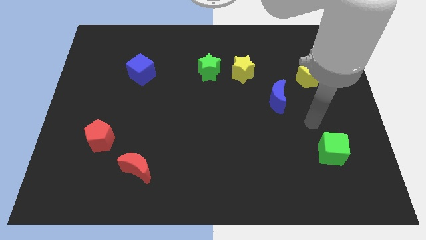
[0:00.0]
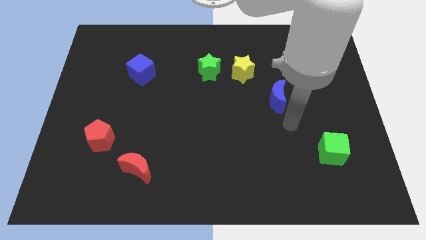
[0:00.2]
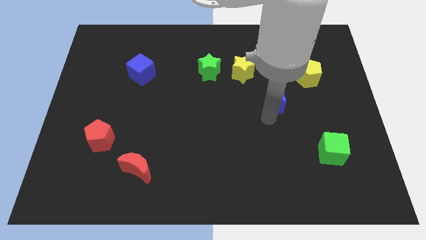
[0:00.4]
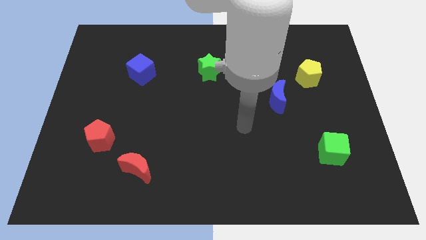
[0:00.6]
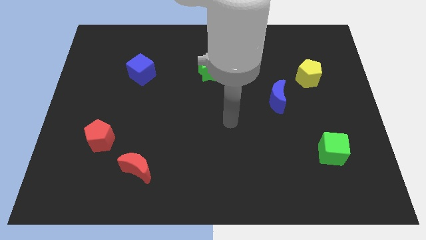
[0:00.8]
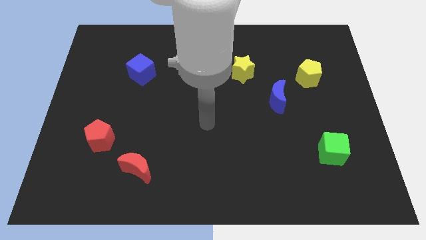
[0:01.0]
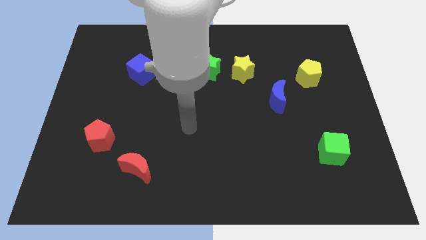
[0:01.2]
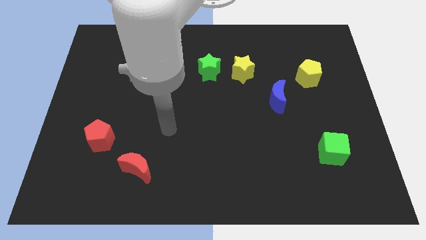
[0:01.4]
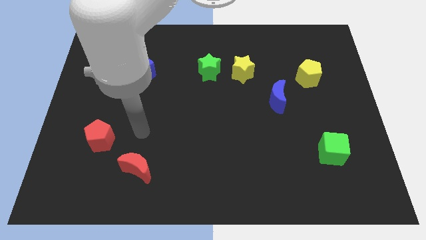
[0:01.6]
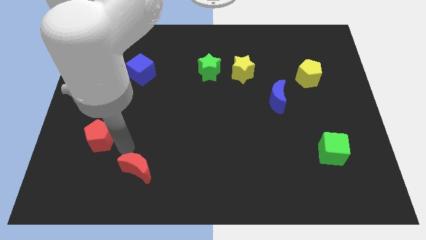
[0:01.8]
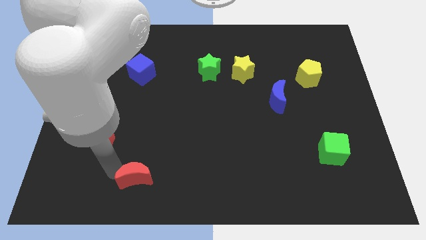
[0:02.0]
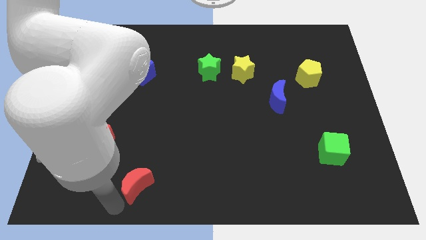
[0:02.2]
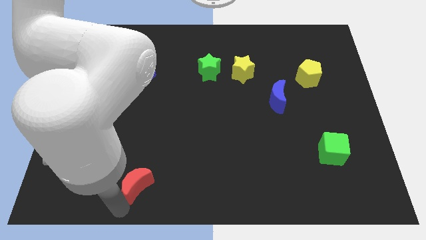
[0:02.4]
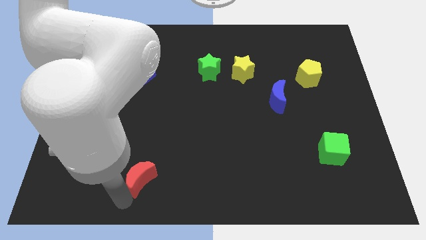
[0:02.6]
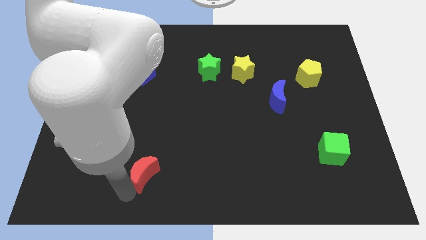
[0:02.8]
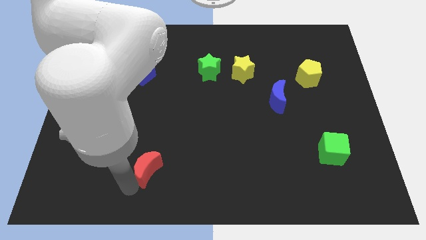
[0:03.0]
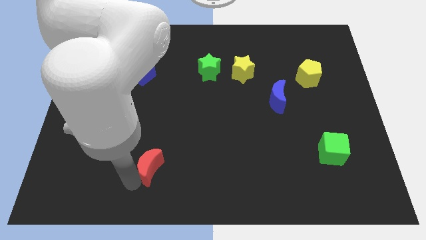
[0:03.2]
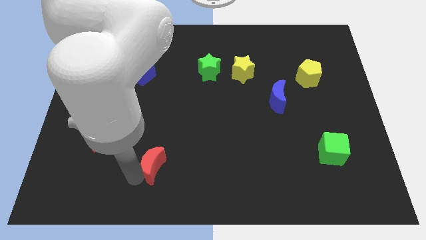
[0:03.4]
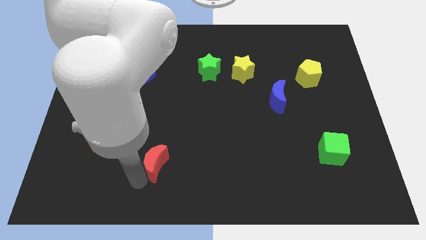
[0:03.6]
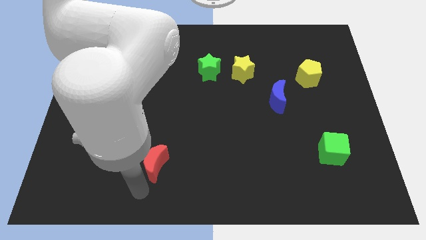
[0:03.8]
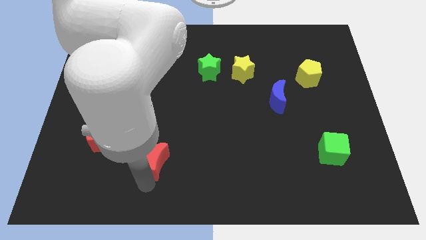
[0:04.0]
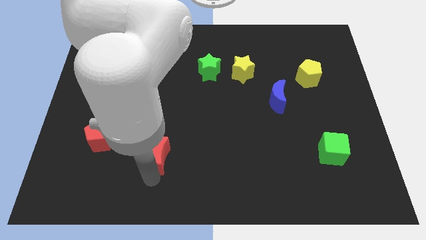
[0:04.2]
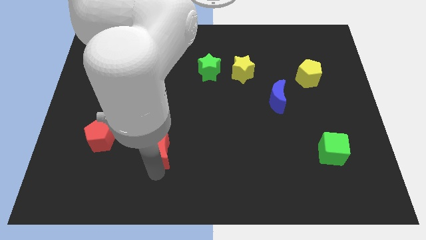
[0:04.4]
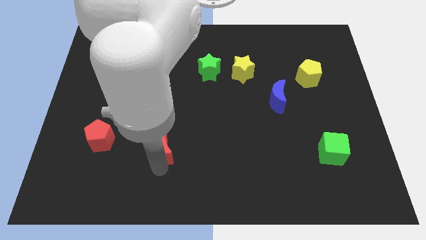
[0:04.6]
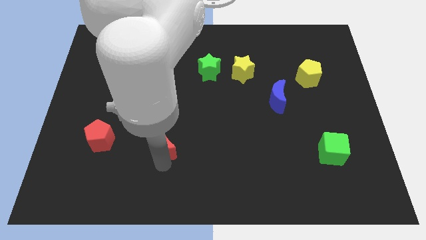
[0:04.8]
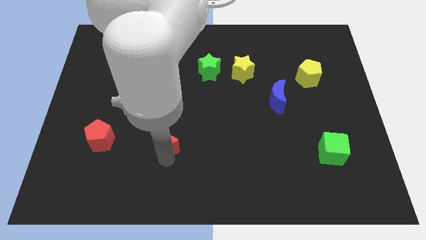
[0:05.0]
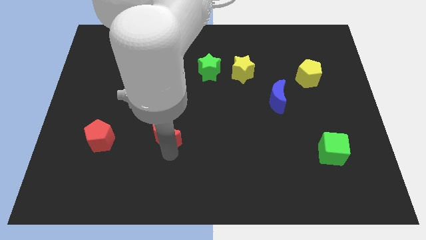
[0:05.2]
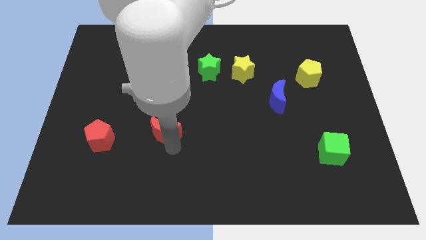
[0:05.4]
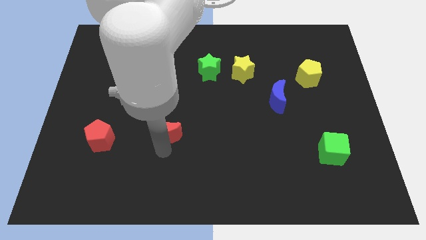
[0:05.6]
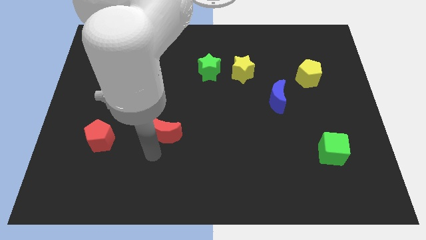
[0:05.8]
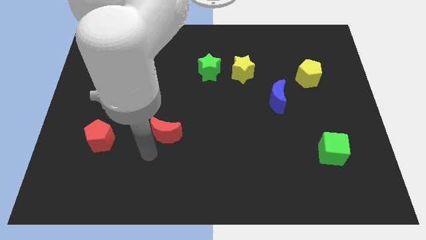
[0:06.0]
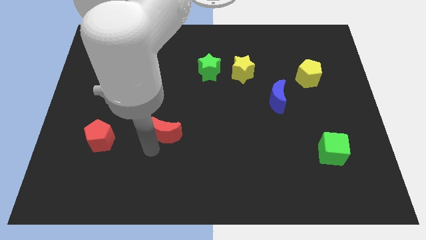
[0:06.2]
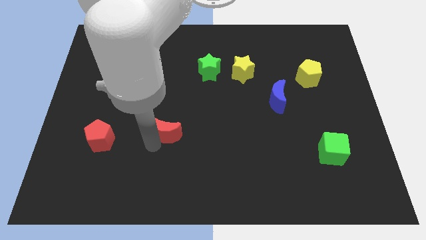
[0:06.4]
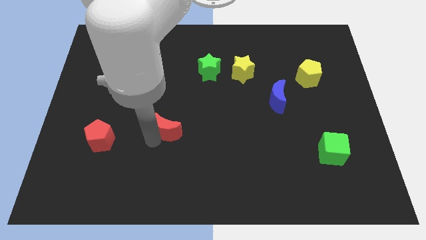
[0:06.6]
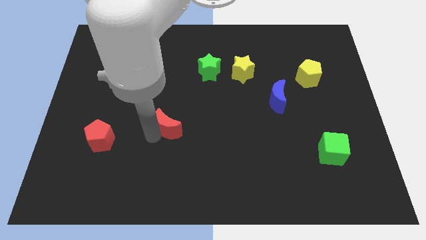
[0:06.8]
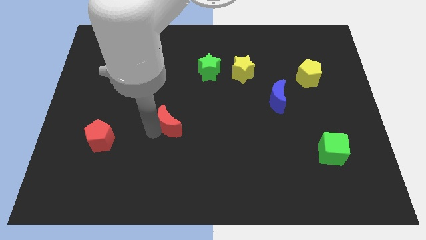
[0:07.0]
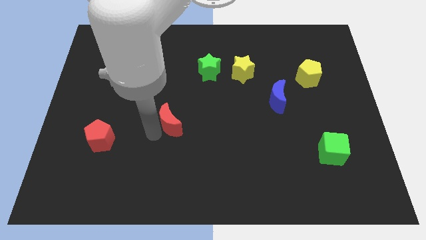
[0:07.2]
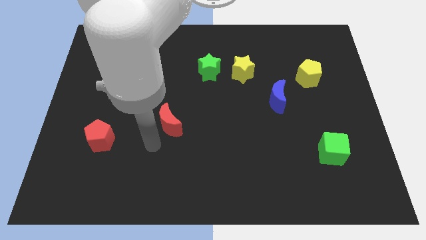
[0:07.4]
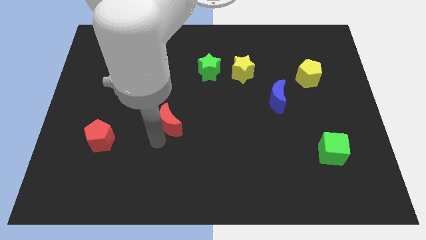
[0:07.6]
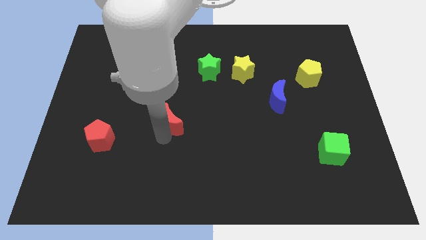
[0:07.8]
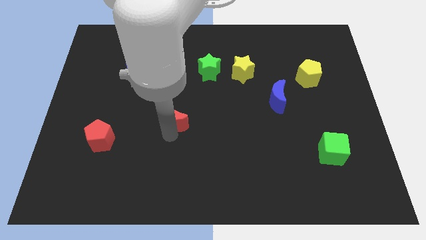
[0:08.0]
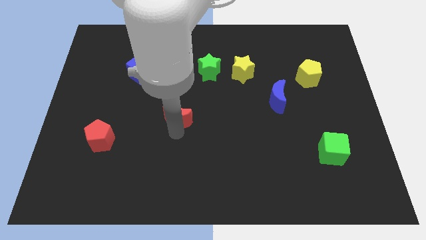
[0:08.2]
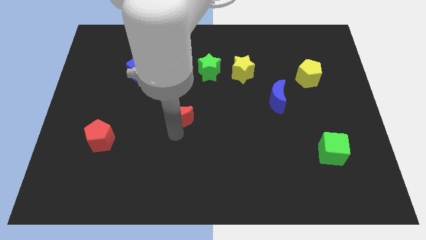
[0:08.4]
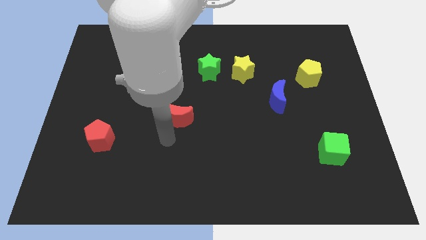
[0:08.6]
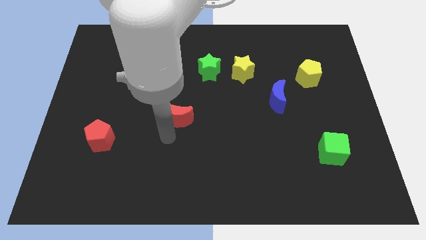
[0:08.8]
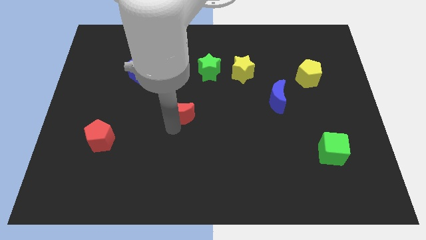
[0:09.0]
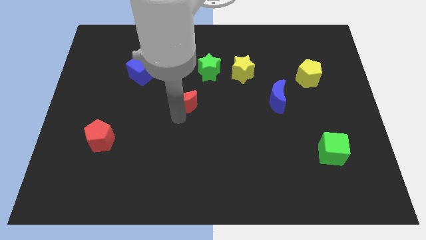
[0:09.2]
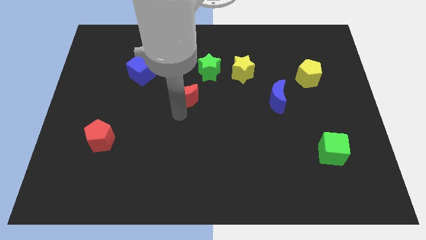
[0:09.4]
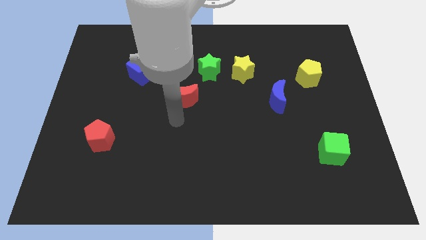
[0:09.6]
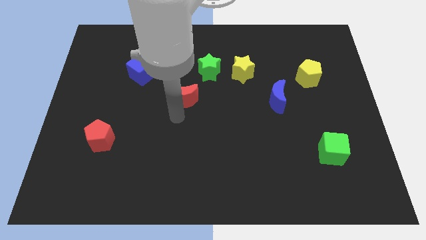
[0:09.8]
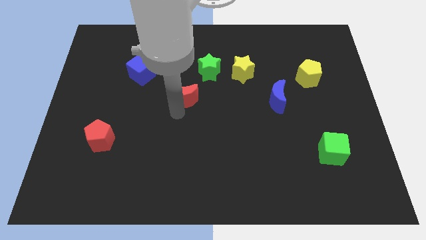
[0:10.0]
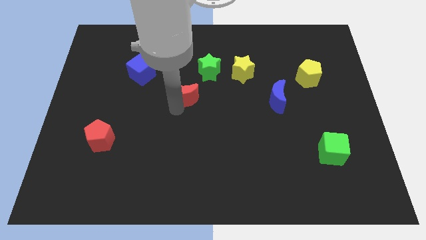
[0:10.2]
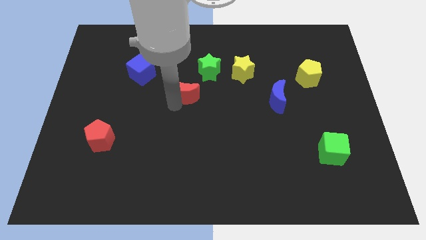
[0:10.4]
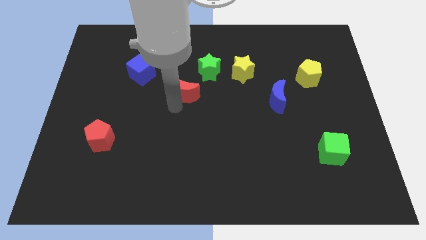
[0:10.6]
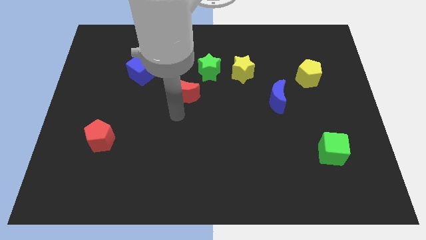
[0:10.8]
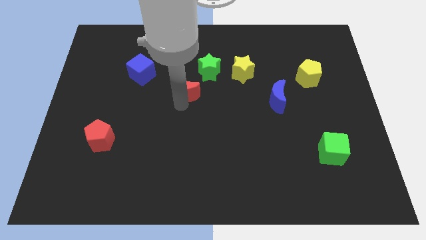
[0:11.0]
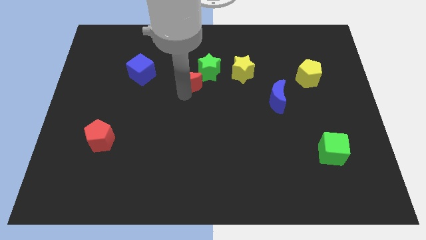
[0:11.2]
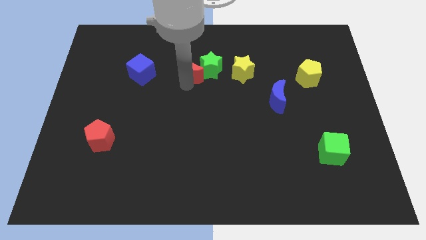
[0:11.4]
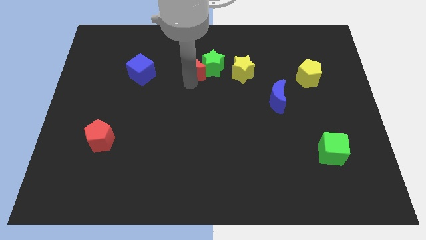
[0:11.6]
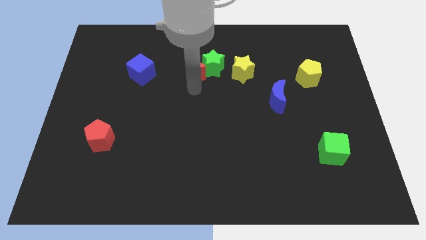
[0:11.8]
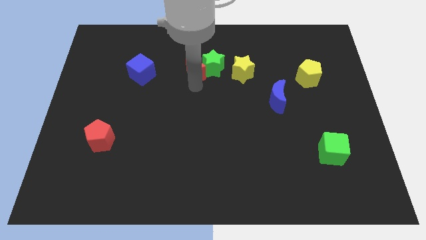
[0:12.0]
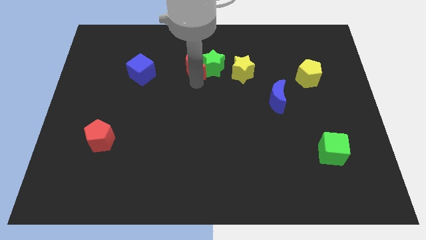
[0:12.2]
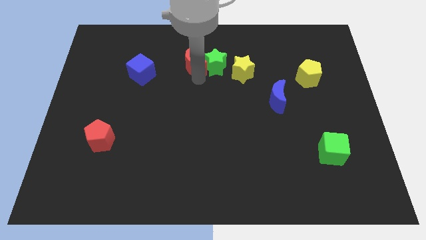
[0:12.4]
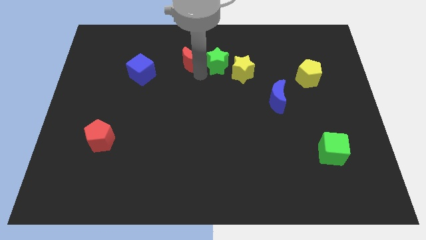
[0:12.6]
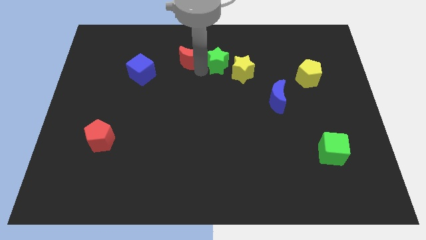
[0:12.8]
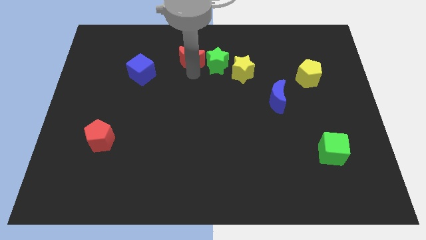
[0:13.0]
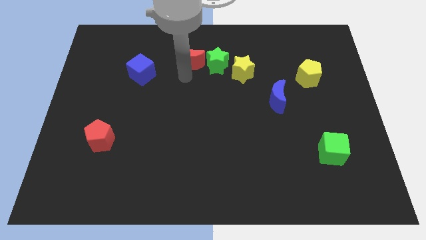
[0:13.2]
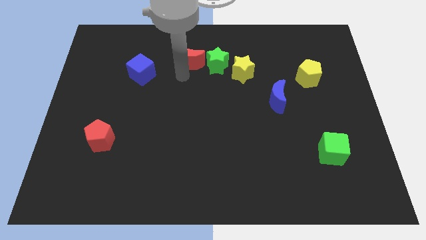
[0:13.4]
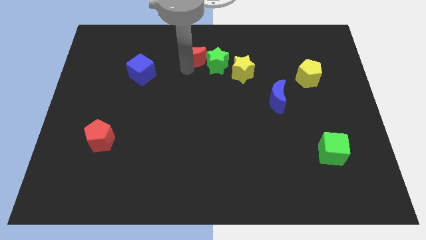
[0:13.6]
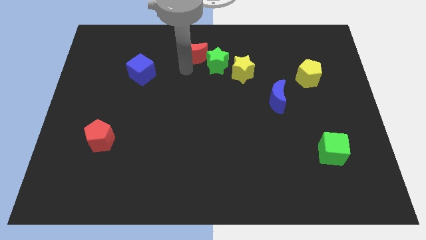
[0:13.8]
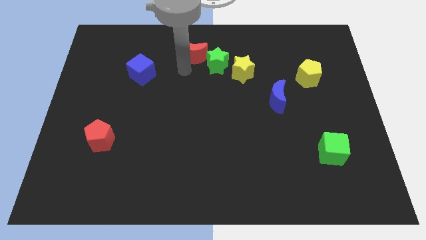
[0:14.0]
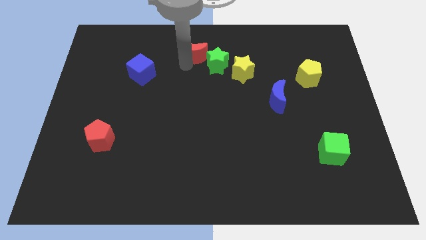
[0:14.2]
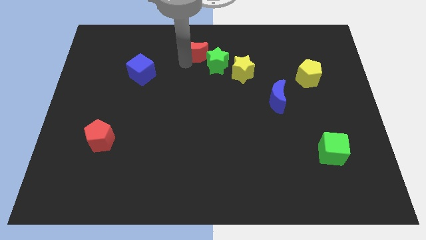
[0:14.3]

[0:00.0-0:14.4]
push the red moon to the top side
